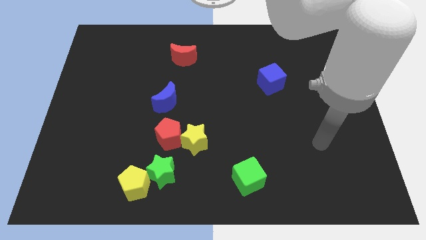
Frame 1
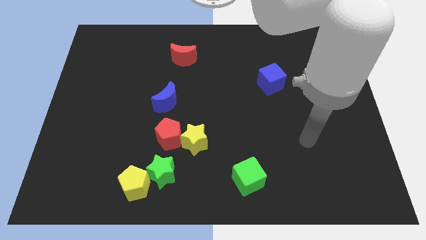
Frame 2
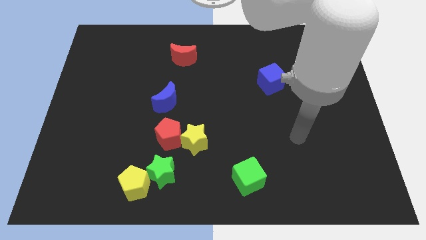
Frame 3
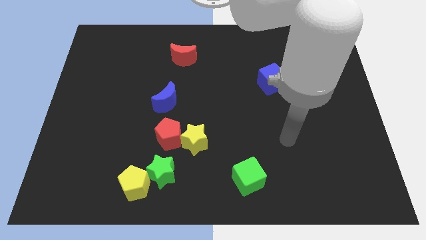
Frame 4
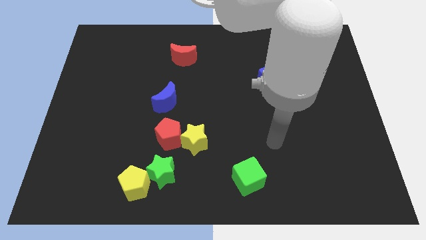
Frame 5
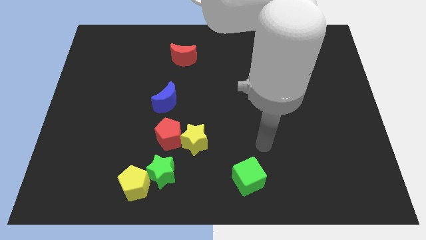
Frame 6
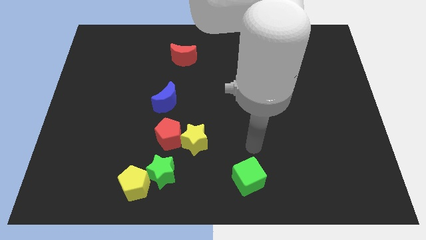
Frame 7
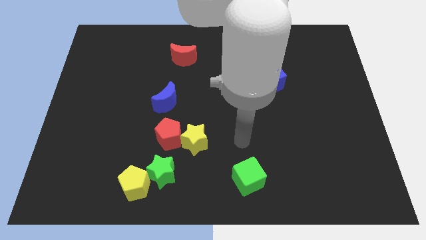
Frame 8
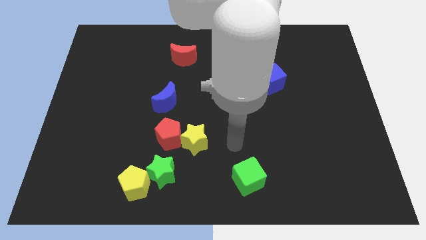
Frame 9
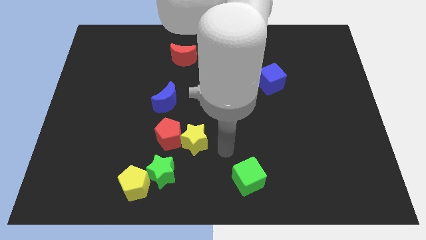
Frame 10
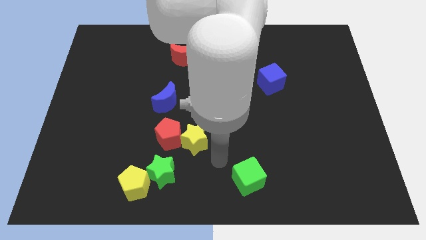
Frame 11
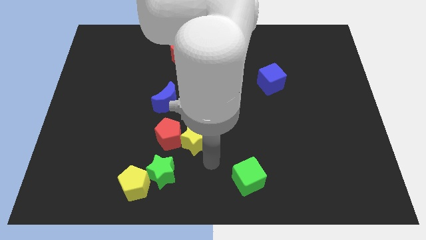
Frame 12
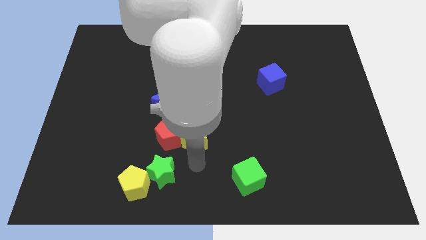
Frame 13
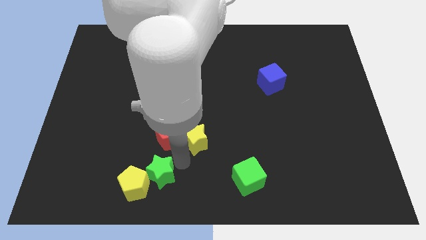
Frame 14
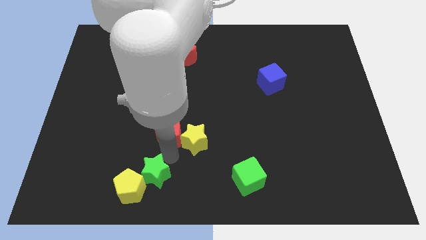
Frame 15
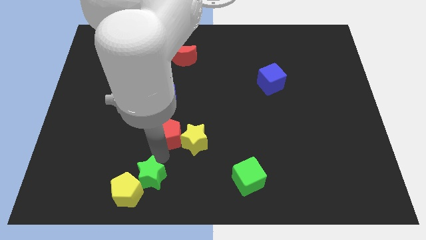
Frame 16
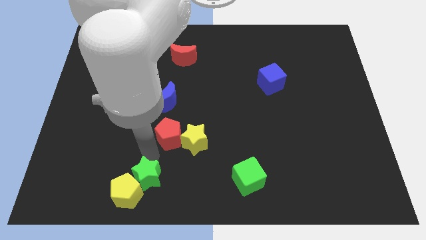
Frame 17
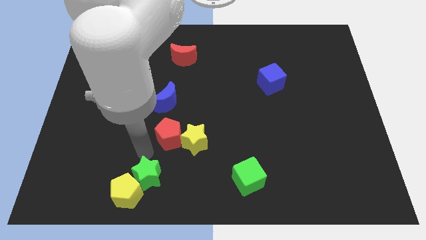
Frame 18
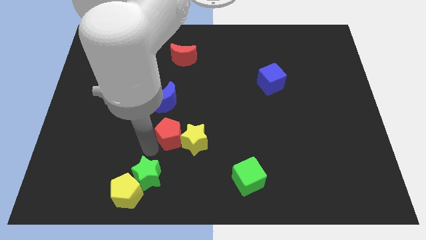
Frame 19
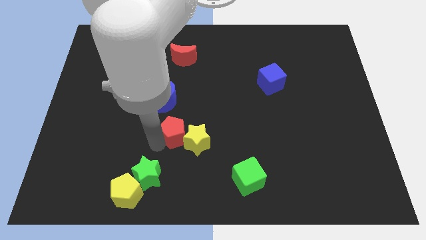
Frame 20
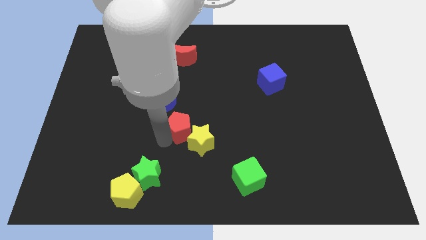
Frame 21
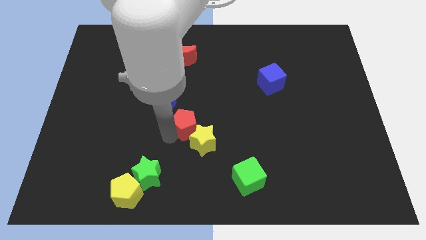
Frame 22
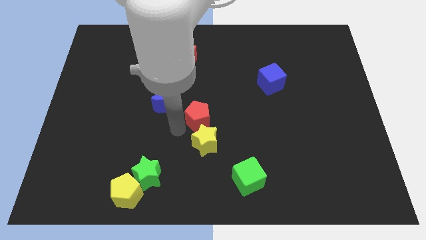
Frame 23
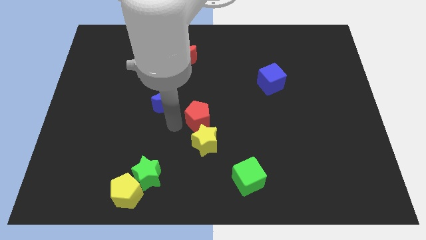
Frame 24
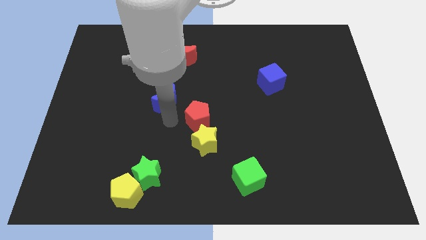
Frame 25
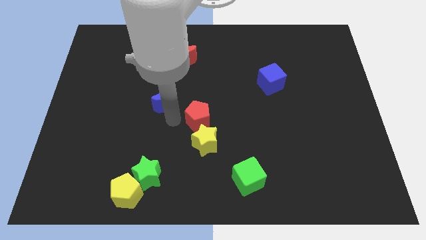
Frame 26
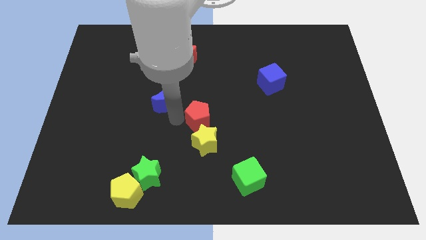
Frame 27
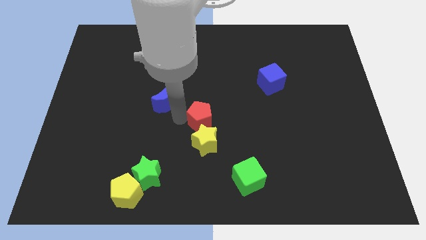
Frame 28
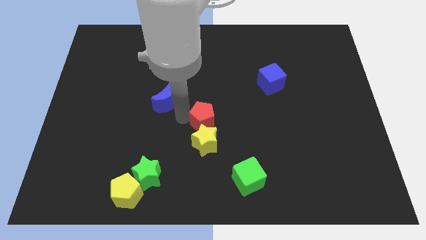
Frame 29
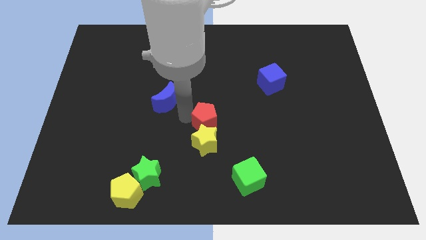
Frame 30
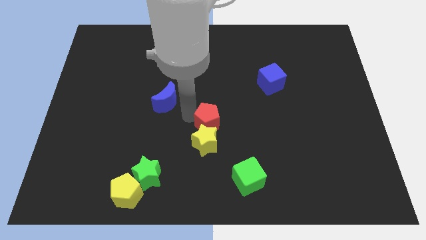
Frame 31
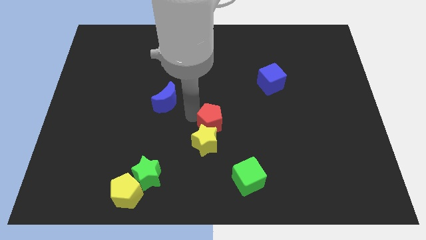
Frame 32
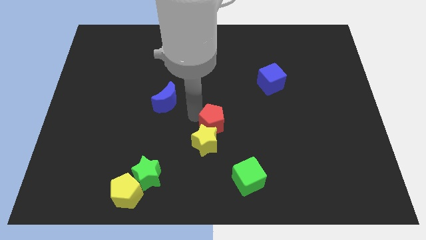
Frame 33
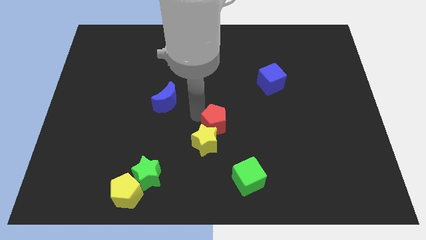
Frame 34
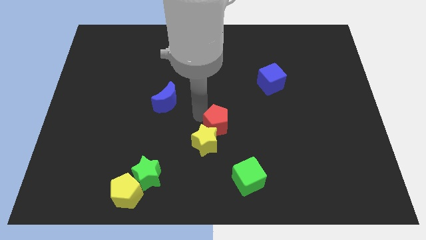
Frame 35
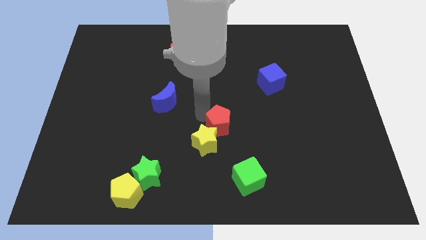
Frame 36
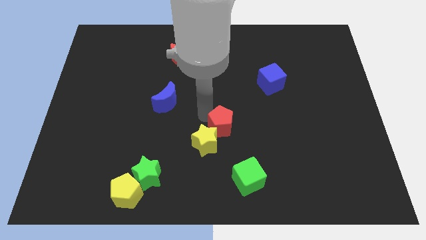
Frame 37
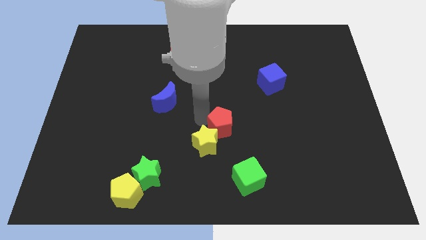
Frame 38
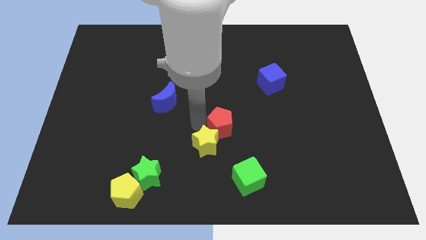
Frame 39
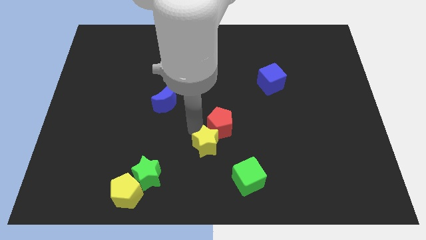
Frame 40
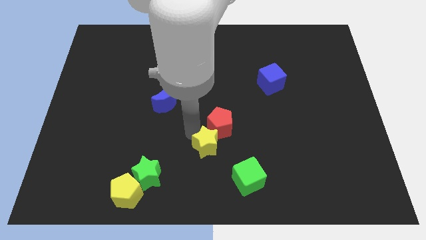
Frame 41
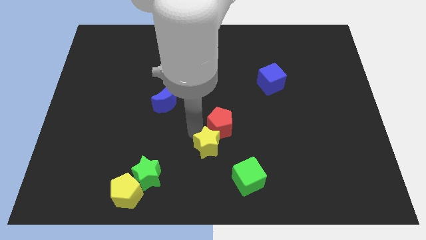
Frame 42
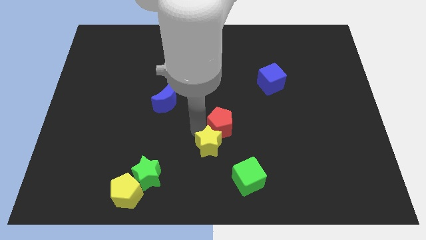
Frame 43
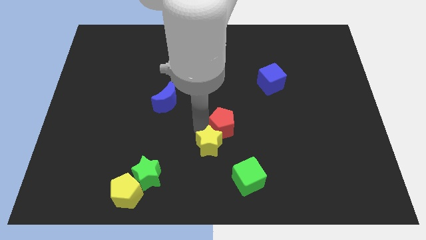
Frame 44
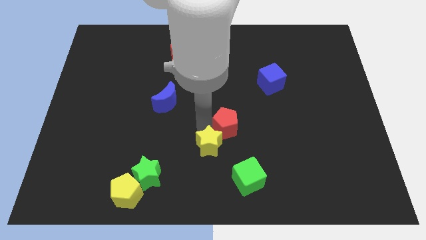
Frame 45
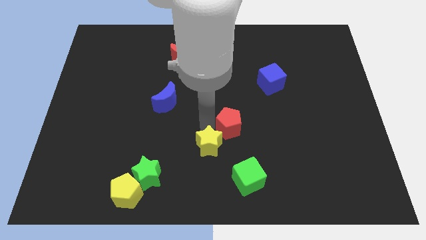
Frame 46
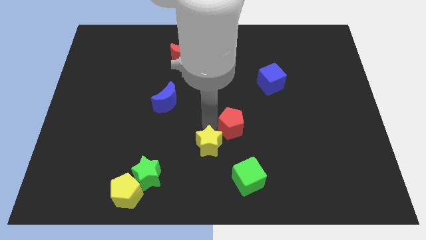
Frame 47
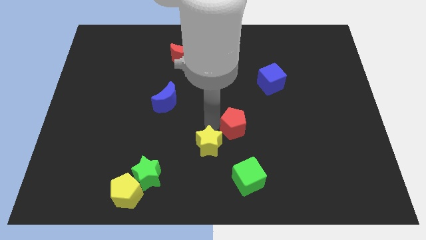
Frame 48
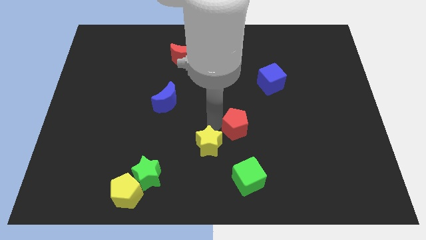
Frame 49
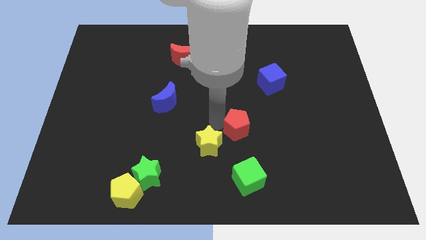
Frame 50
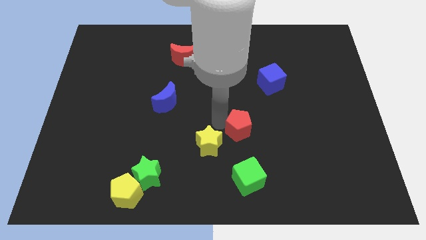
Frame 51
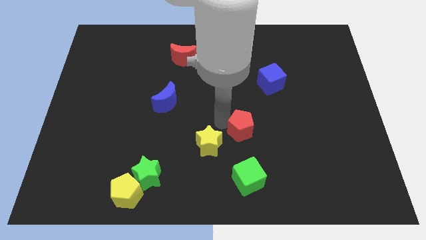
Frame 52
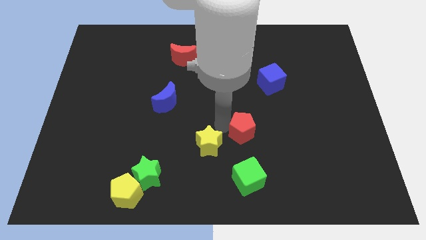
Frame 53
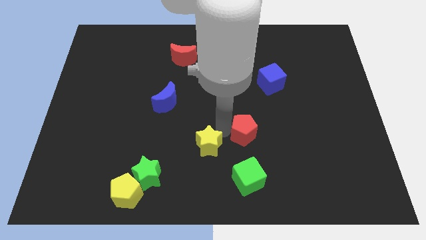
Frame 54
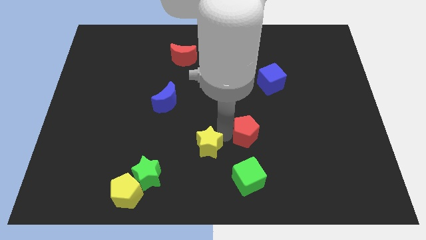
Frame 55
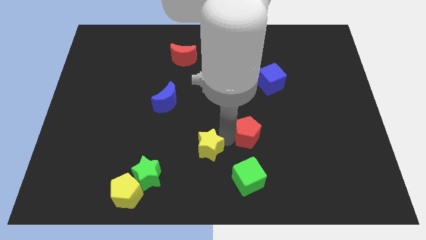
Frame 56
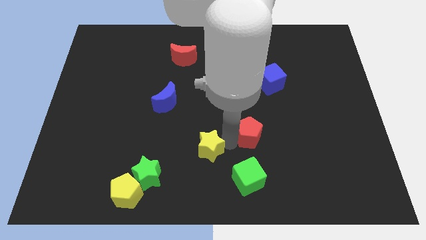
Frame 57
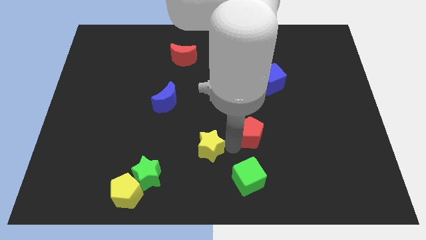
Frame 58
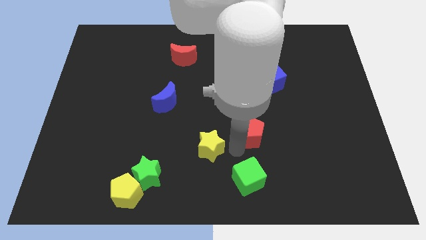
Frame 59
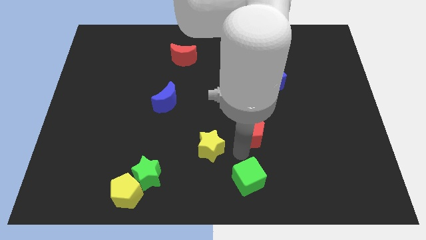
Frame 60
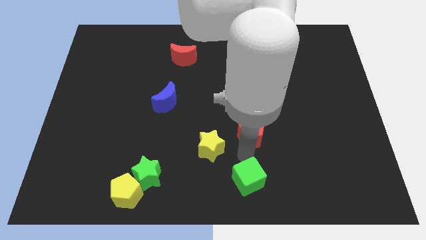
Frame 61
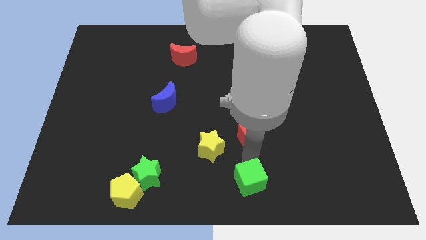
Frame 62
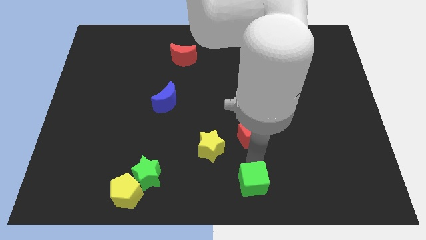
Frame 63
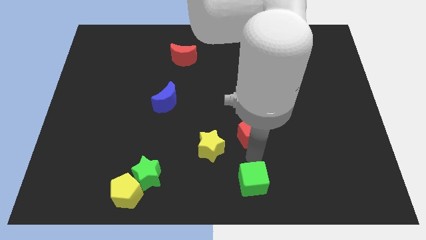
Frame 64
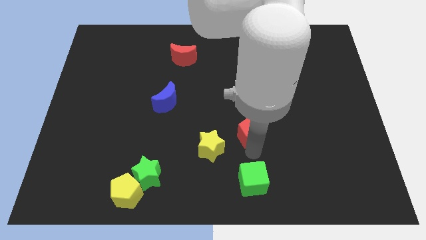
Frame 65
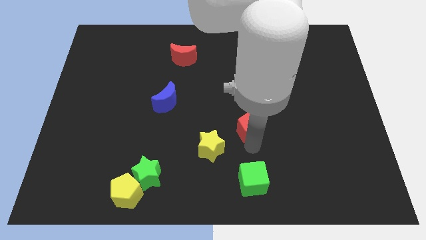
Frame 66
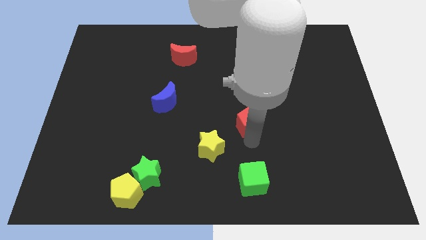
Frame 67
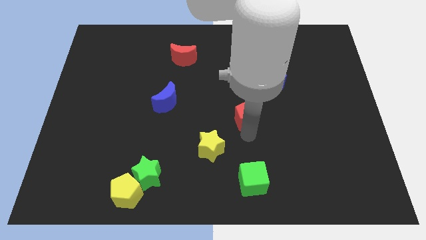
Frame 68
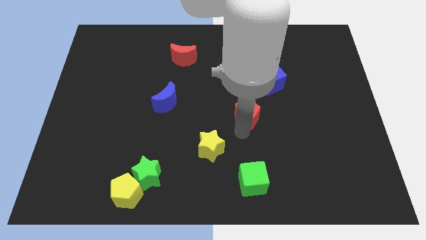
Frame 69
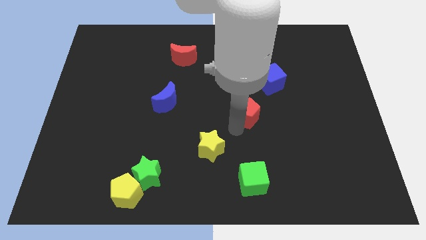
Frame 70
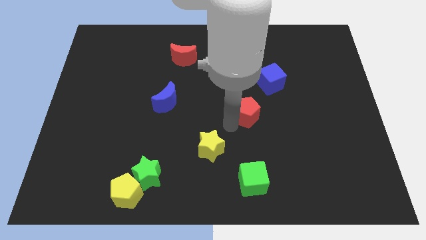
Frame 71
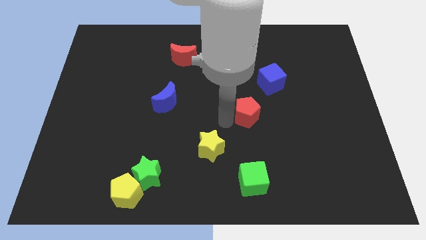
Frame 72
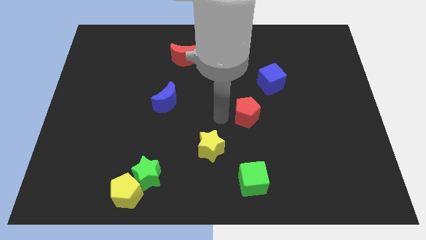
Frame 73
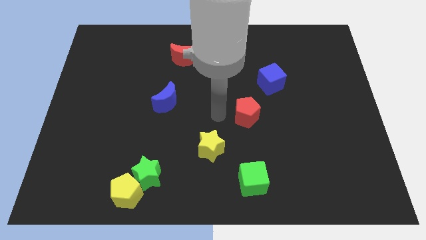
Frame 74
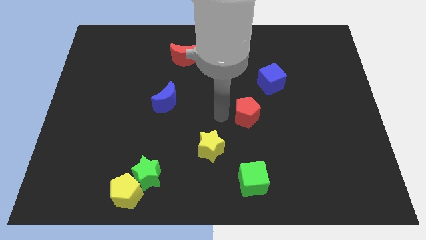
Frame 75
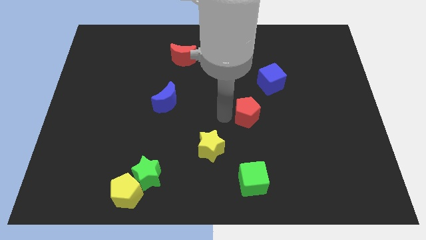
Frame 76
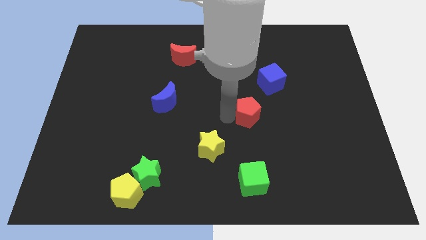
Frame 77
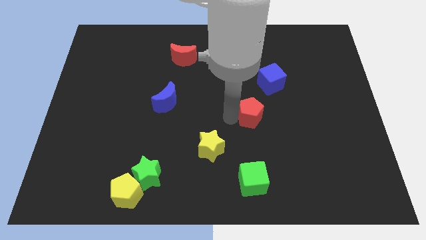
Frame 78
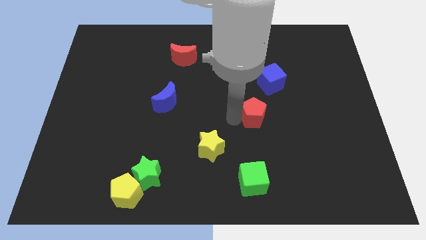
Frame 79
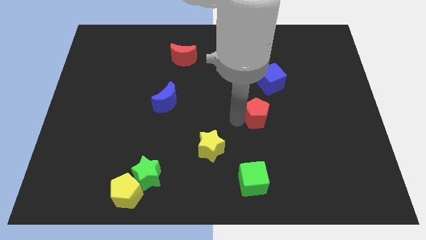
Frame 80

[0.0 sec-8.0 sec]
move the red pentagon to the bottom of the blue cube
